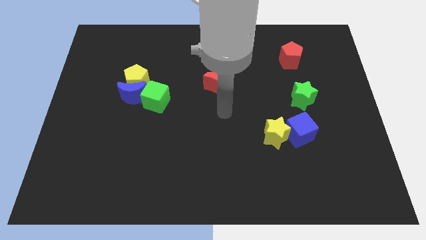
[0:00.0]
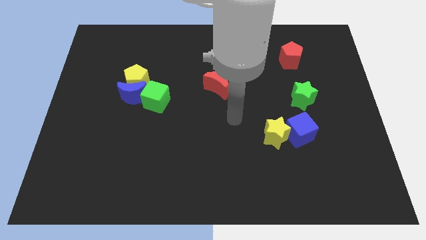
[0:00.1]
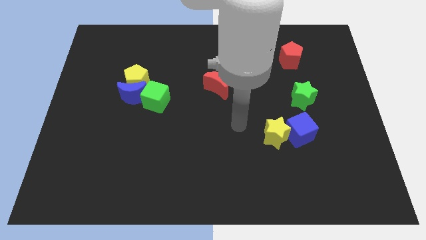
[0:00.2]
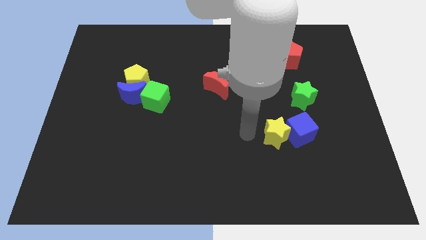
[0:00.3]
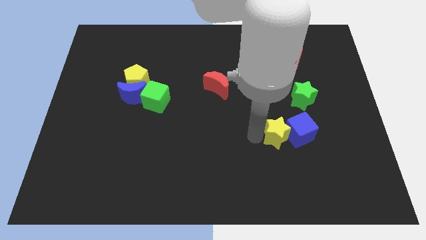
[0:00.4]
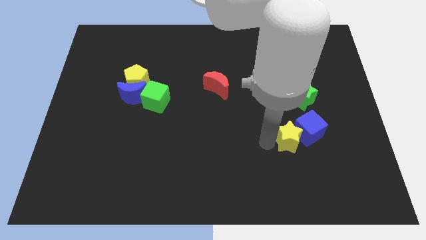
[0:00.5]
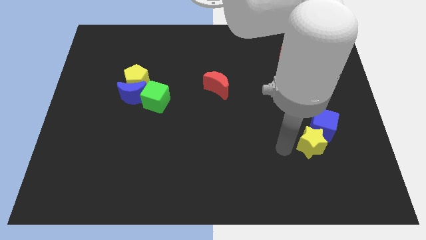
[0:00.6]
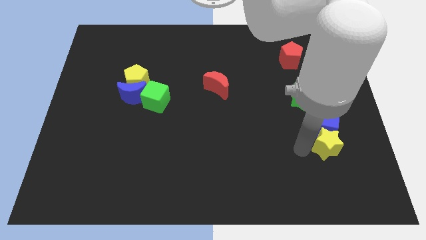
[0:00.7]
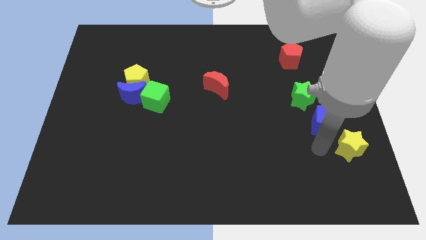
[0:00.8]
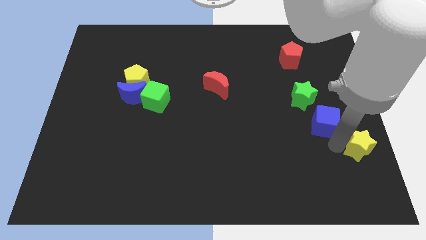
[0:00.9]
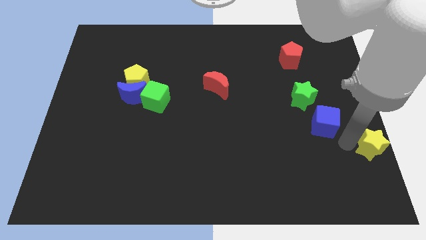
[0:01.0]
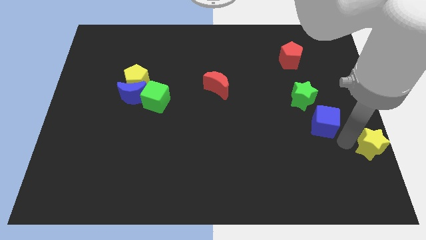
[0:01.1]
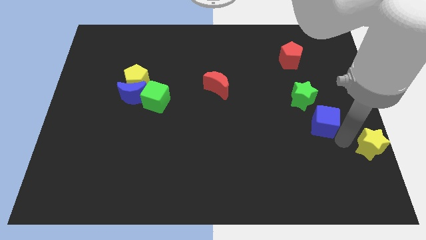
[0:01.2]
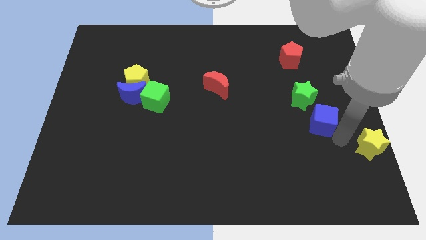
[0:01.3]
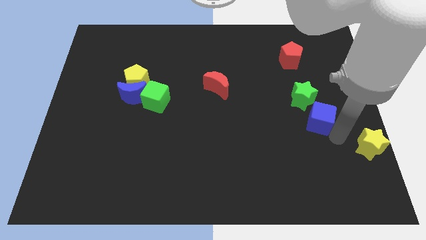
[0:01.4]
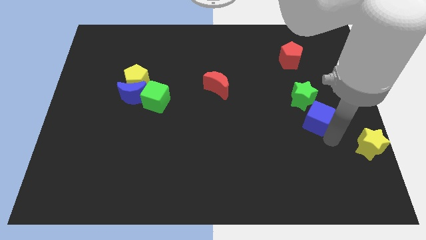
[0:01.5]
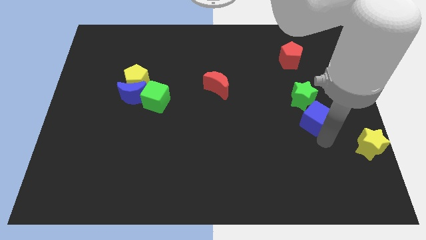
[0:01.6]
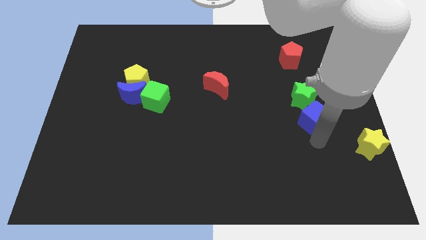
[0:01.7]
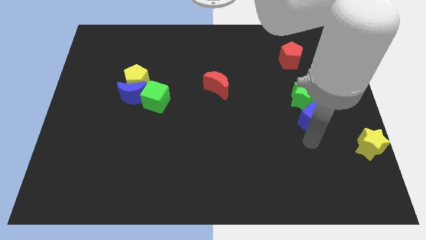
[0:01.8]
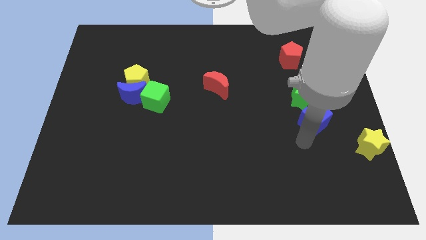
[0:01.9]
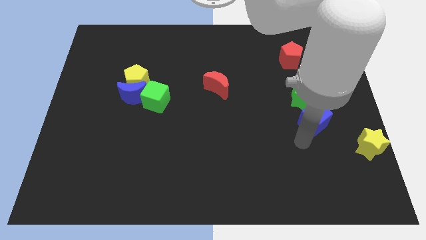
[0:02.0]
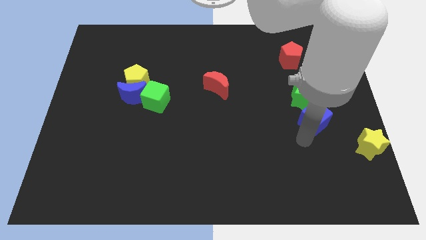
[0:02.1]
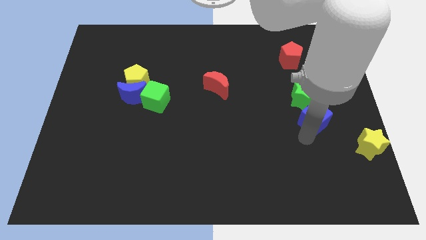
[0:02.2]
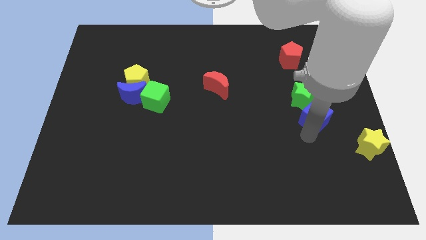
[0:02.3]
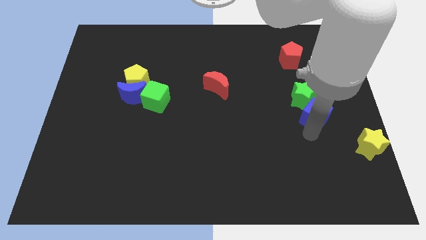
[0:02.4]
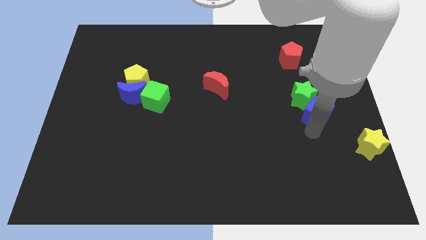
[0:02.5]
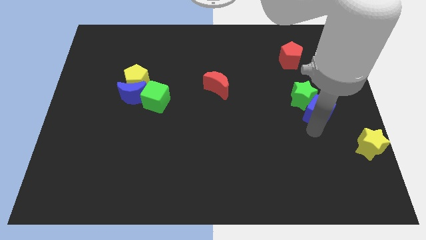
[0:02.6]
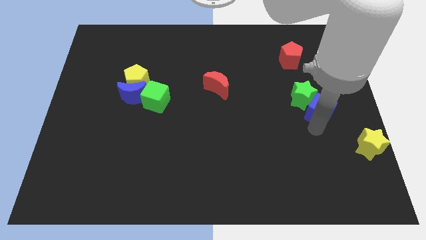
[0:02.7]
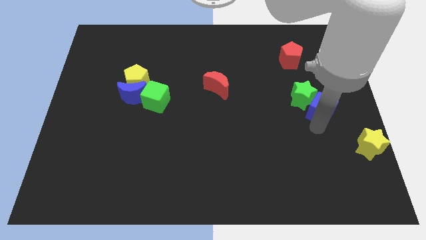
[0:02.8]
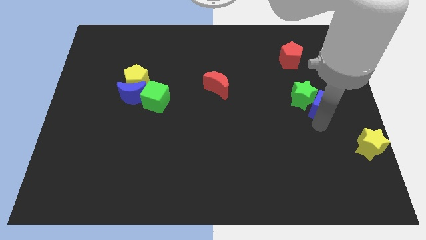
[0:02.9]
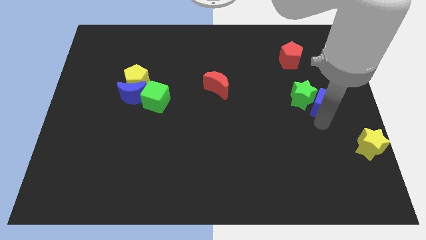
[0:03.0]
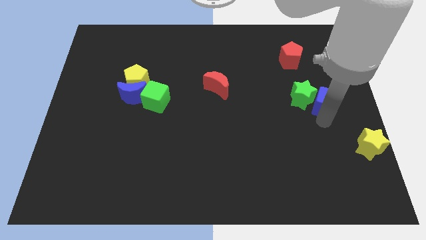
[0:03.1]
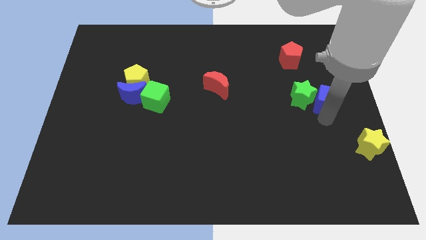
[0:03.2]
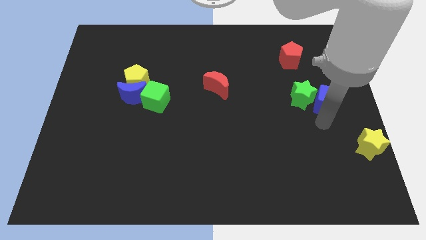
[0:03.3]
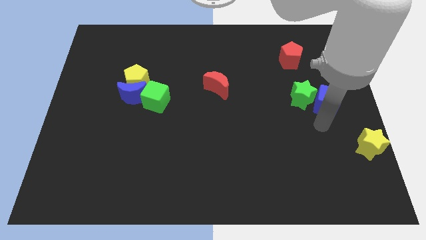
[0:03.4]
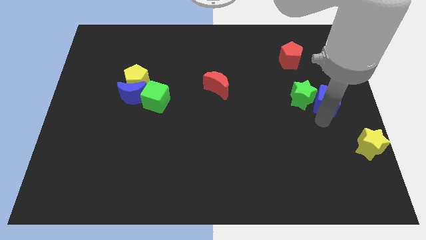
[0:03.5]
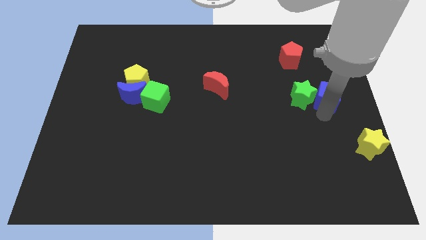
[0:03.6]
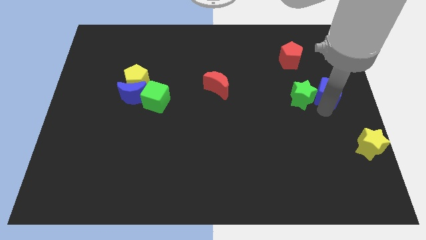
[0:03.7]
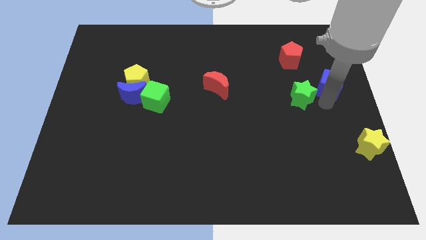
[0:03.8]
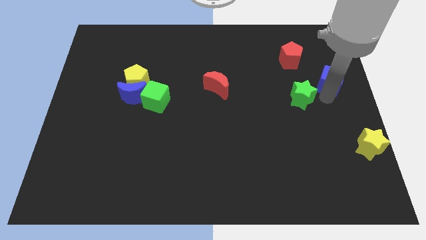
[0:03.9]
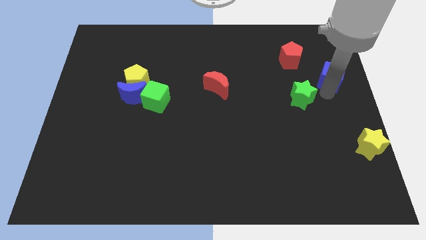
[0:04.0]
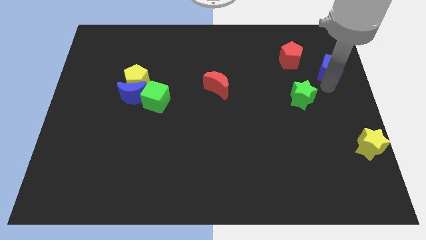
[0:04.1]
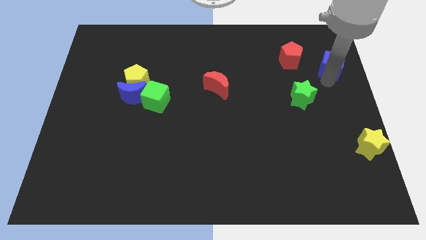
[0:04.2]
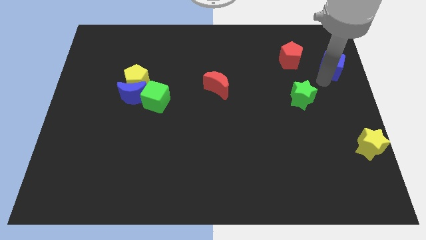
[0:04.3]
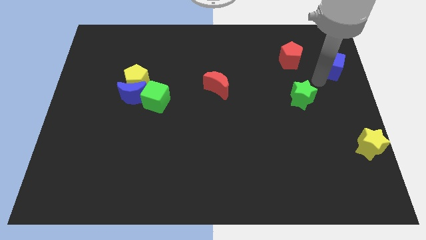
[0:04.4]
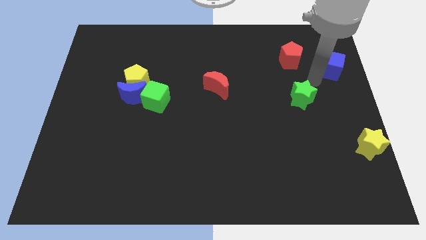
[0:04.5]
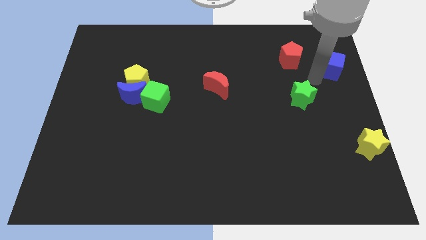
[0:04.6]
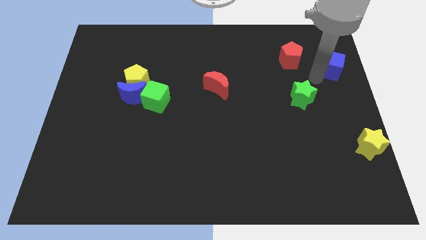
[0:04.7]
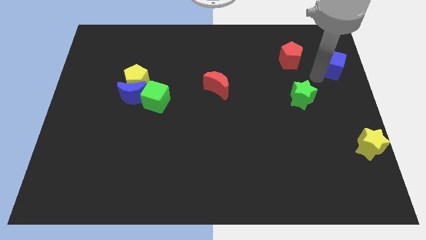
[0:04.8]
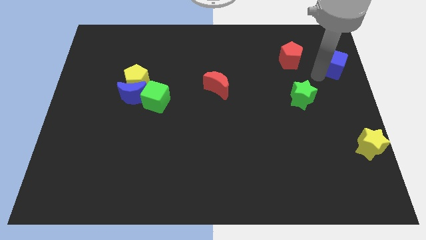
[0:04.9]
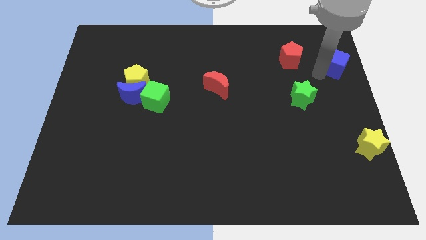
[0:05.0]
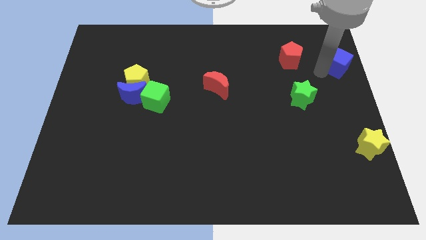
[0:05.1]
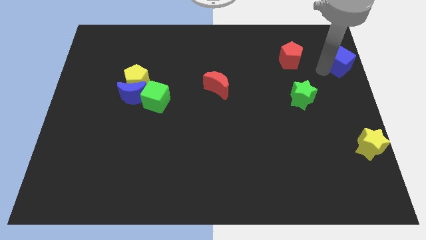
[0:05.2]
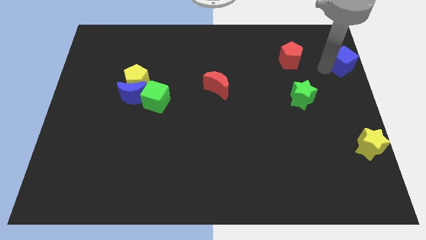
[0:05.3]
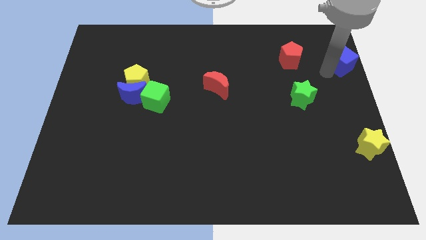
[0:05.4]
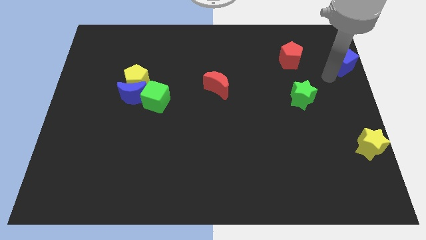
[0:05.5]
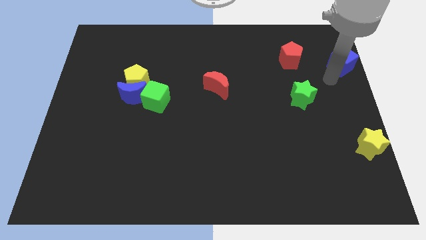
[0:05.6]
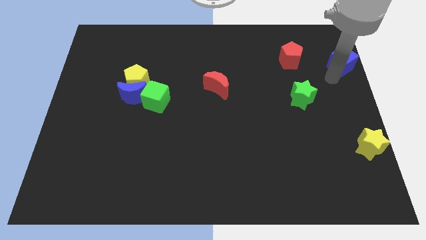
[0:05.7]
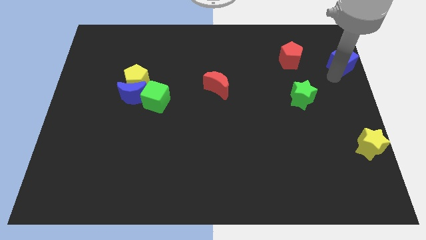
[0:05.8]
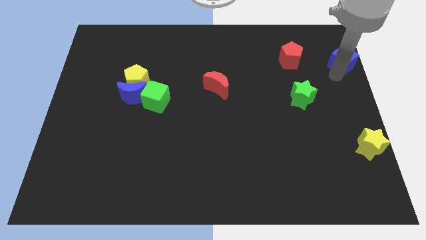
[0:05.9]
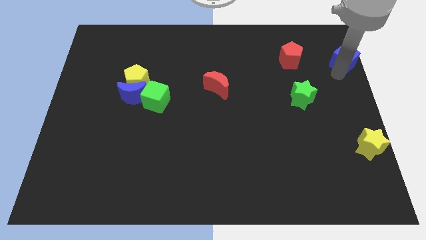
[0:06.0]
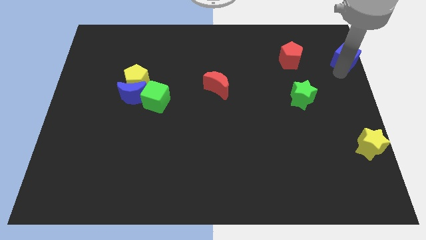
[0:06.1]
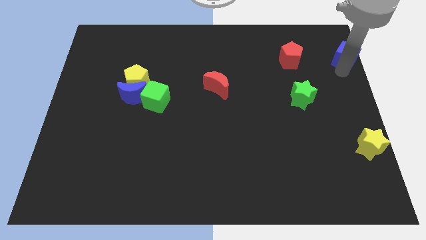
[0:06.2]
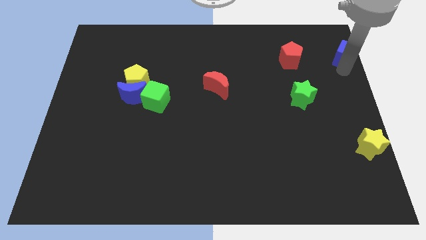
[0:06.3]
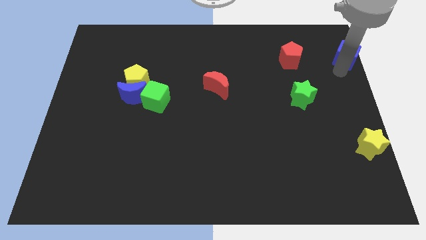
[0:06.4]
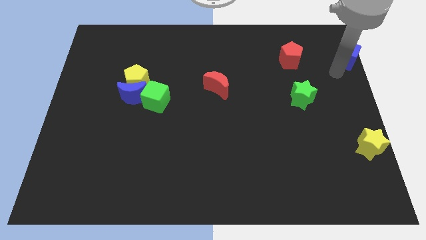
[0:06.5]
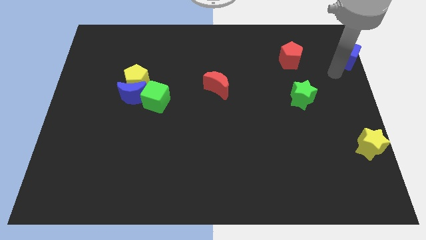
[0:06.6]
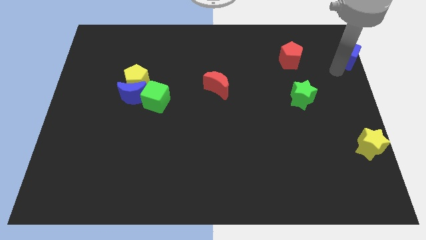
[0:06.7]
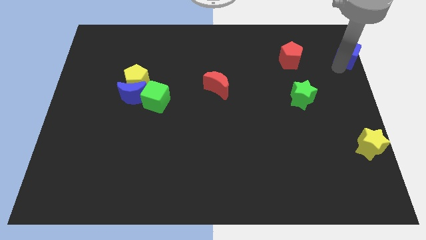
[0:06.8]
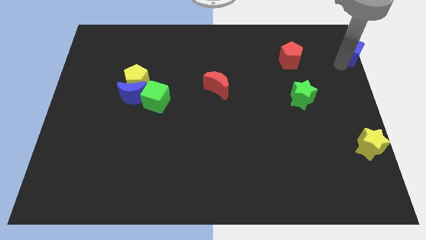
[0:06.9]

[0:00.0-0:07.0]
put the blue cube to the top right
